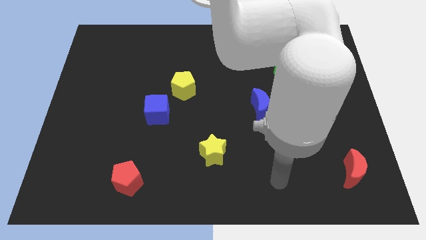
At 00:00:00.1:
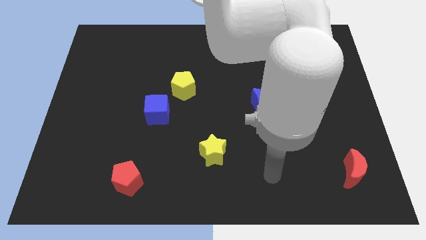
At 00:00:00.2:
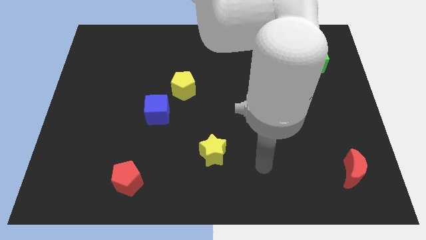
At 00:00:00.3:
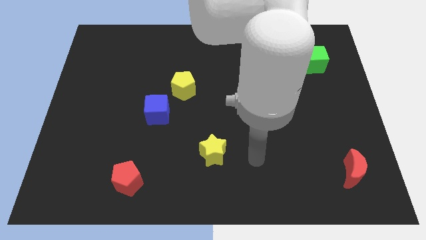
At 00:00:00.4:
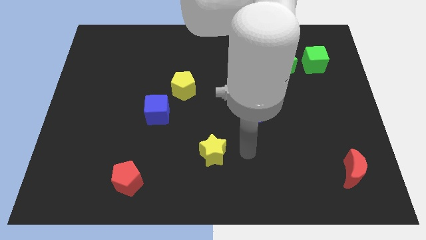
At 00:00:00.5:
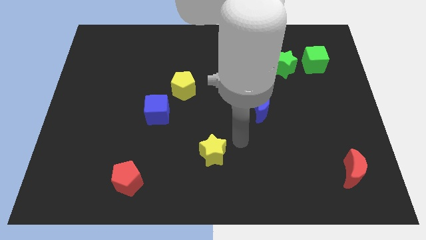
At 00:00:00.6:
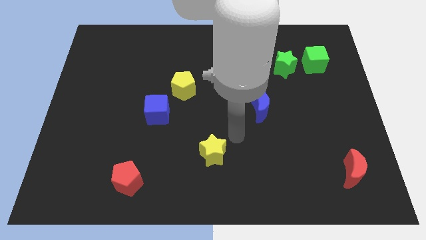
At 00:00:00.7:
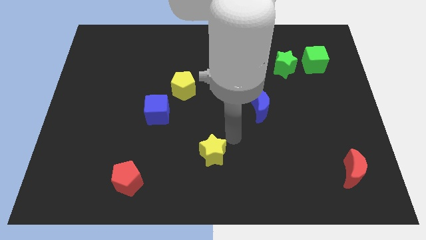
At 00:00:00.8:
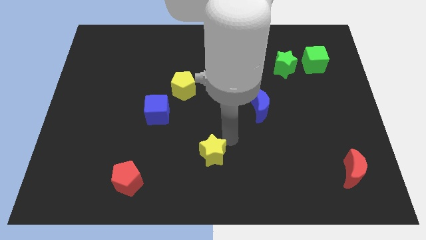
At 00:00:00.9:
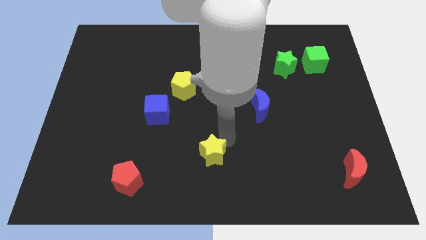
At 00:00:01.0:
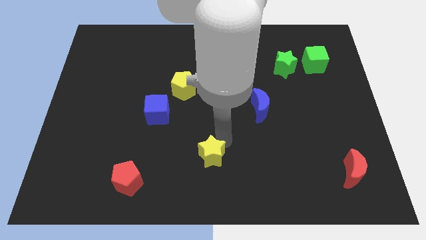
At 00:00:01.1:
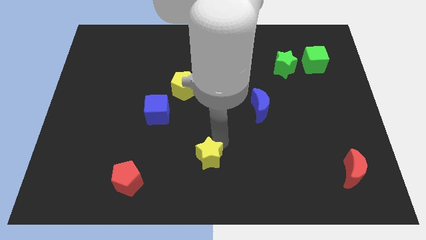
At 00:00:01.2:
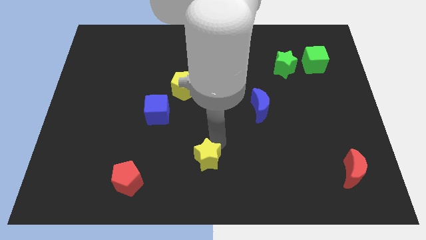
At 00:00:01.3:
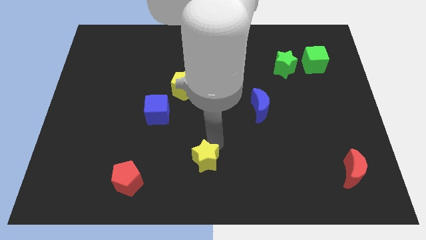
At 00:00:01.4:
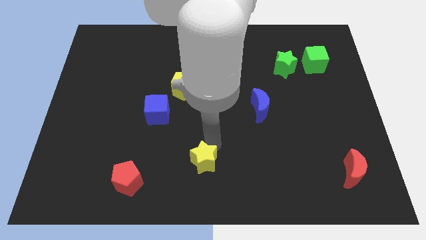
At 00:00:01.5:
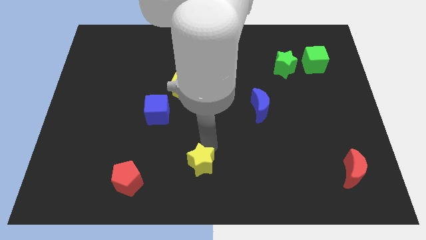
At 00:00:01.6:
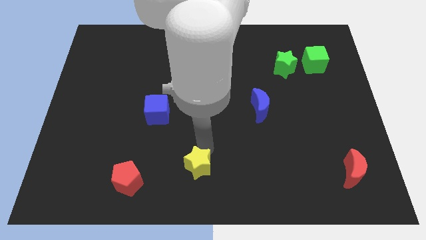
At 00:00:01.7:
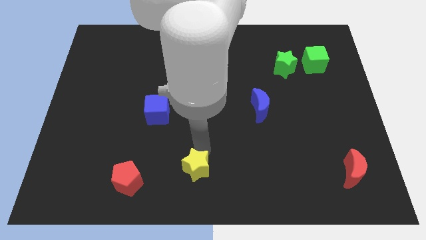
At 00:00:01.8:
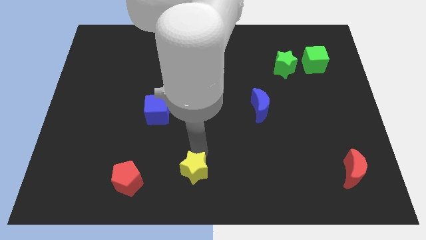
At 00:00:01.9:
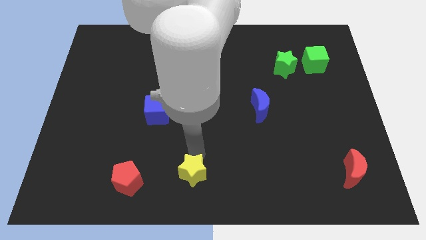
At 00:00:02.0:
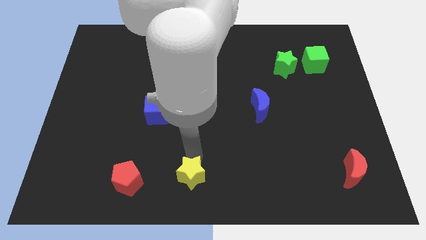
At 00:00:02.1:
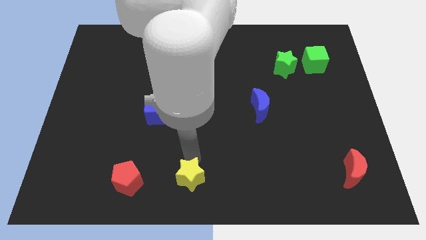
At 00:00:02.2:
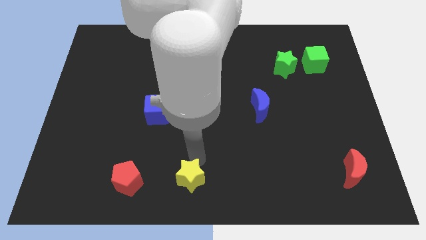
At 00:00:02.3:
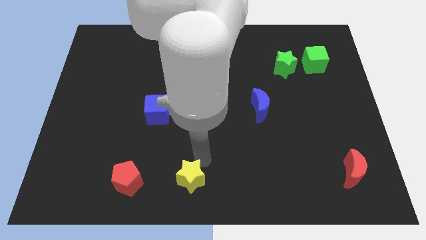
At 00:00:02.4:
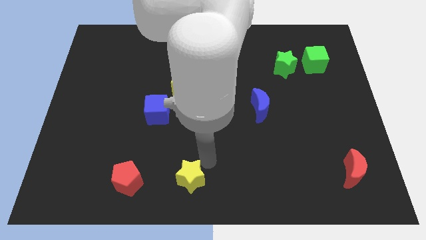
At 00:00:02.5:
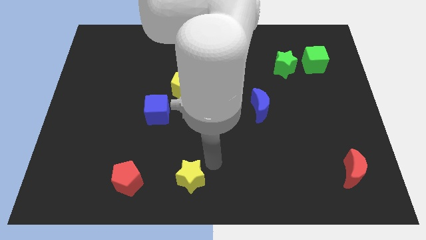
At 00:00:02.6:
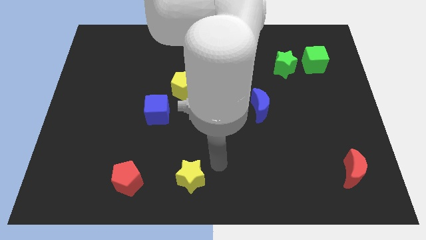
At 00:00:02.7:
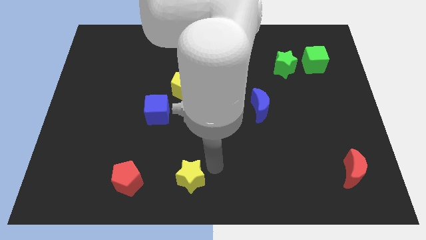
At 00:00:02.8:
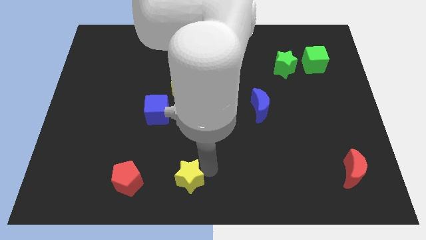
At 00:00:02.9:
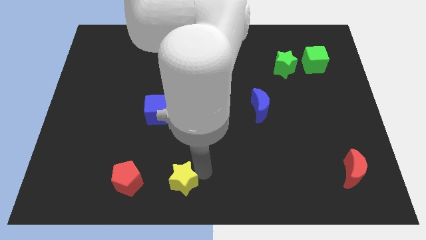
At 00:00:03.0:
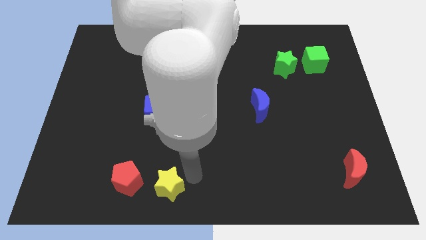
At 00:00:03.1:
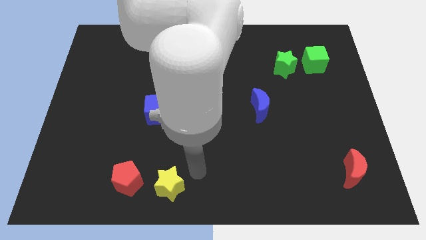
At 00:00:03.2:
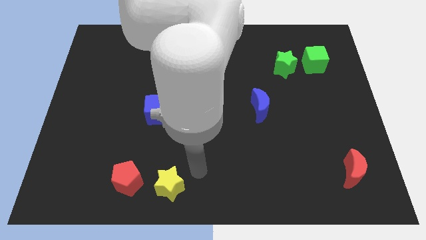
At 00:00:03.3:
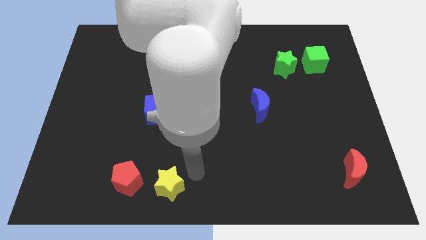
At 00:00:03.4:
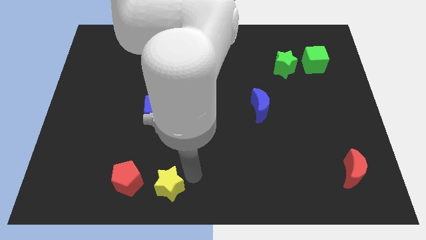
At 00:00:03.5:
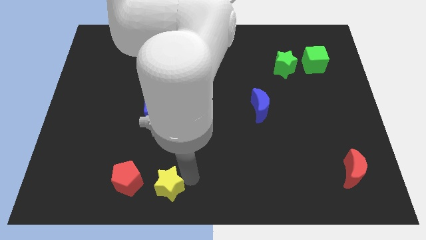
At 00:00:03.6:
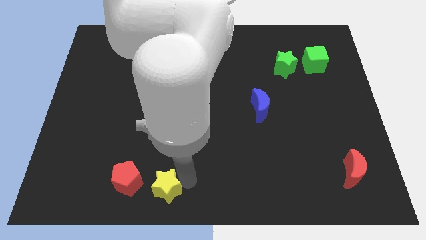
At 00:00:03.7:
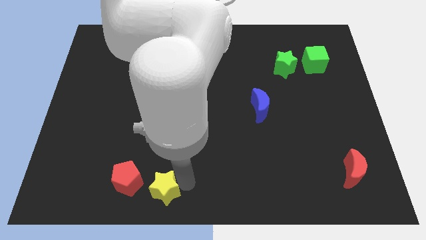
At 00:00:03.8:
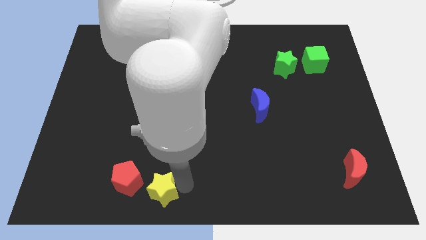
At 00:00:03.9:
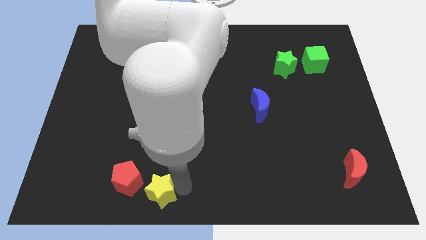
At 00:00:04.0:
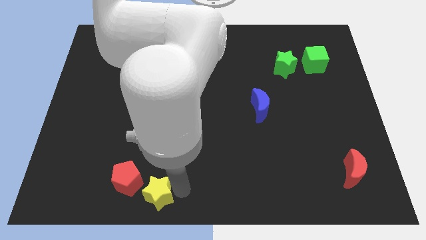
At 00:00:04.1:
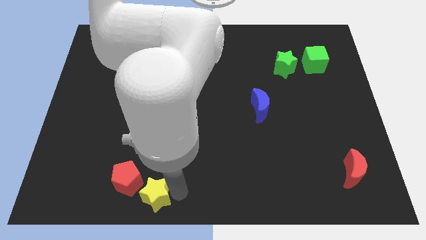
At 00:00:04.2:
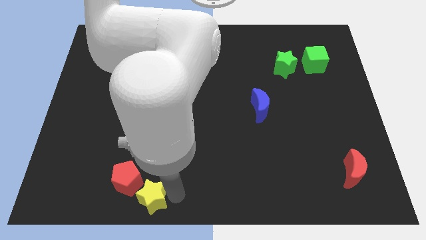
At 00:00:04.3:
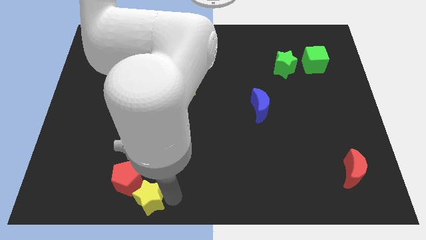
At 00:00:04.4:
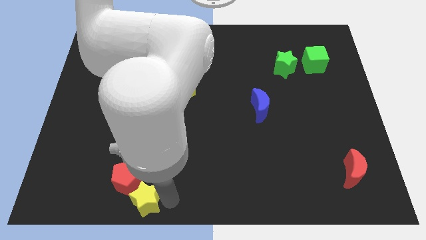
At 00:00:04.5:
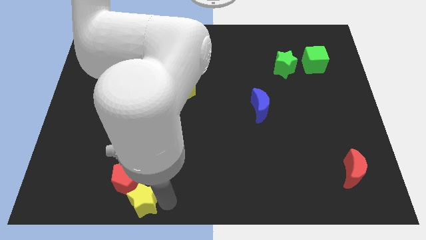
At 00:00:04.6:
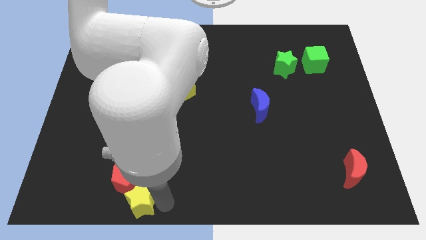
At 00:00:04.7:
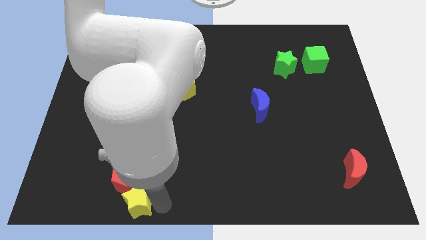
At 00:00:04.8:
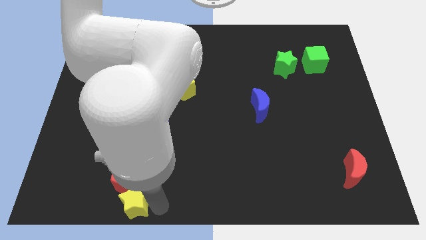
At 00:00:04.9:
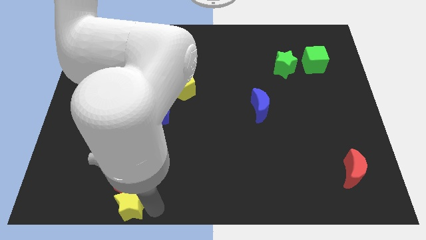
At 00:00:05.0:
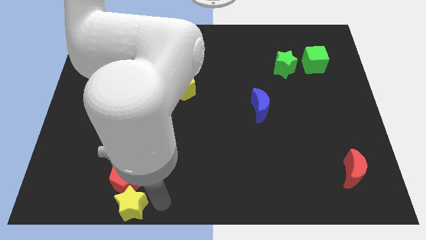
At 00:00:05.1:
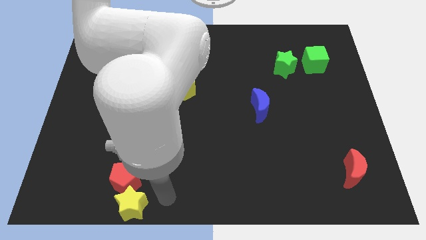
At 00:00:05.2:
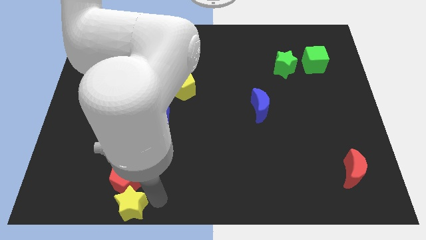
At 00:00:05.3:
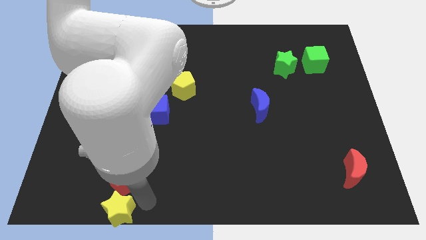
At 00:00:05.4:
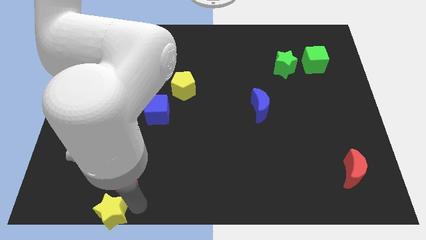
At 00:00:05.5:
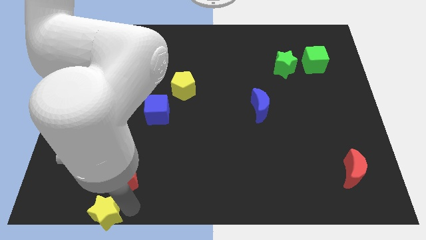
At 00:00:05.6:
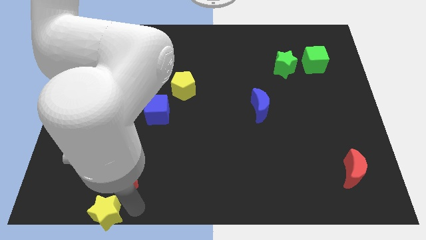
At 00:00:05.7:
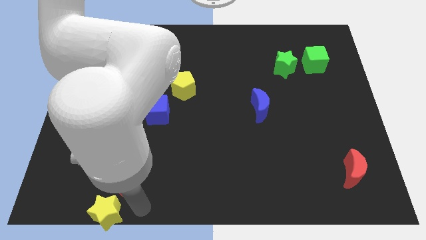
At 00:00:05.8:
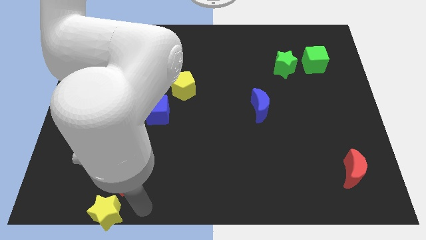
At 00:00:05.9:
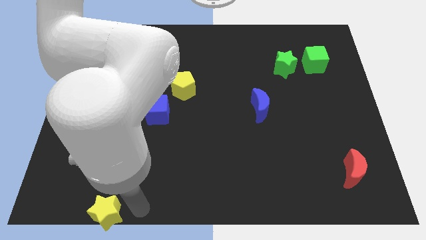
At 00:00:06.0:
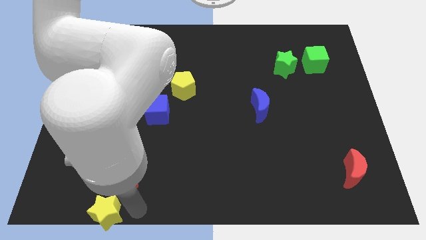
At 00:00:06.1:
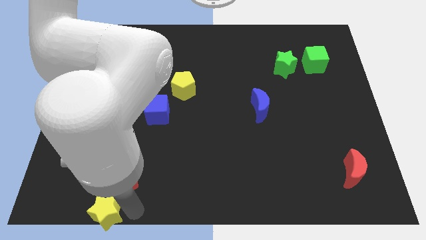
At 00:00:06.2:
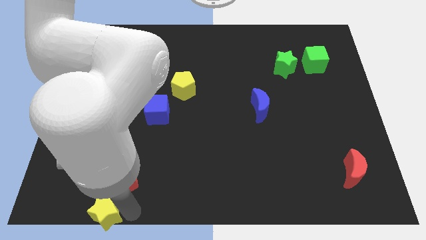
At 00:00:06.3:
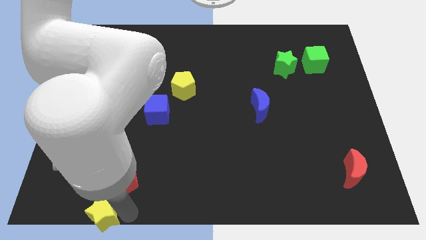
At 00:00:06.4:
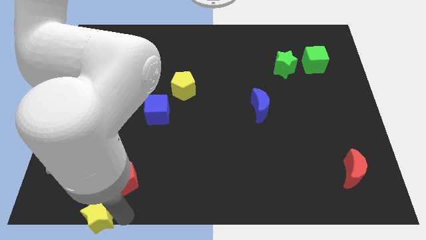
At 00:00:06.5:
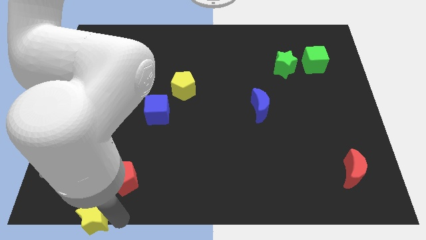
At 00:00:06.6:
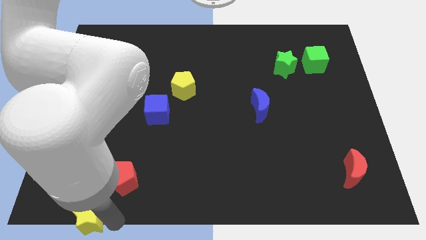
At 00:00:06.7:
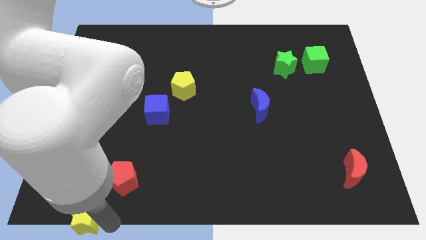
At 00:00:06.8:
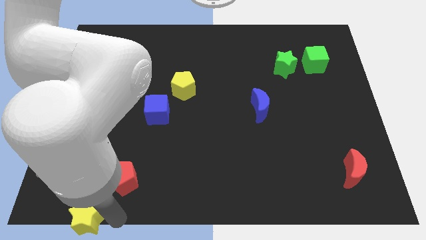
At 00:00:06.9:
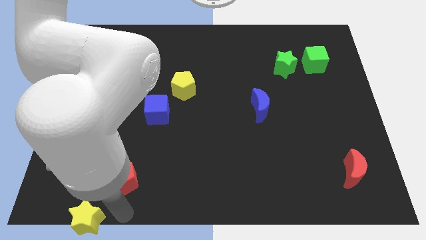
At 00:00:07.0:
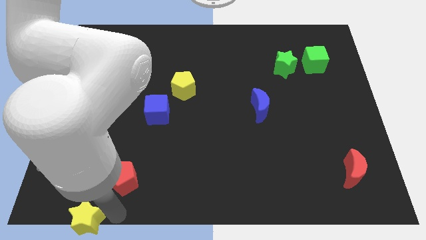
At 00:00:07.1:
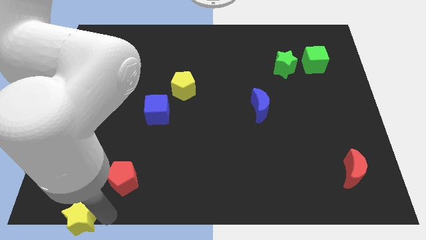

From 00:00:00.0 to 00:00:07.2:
move the yellow star to the bottom left corner

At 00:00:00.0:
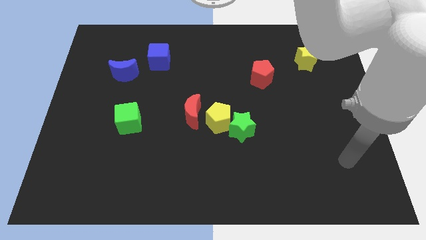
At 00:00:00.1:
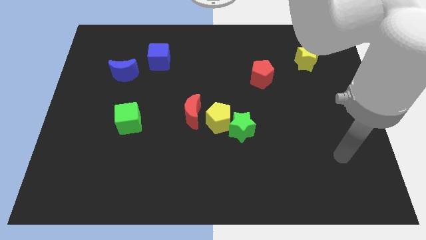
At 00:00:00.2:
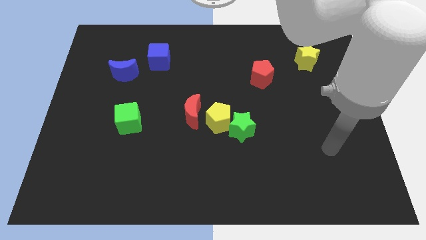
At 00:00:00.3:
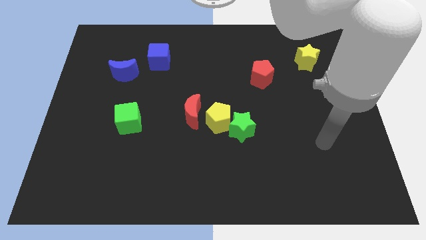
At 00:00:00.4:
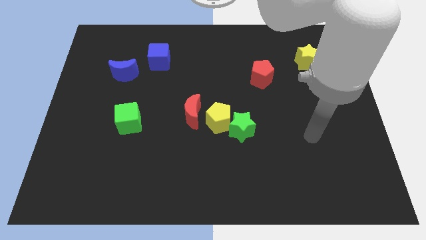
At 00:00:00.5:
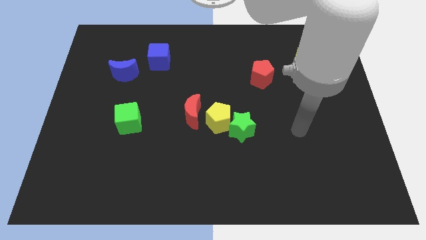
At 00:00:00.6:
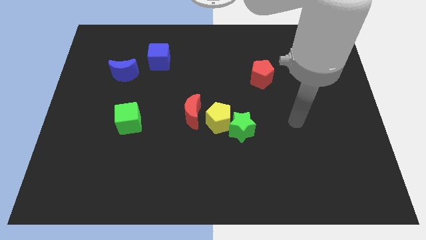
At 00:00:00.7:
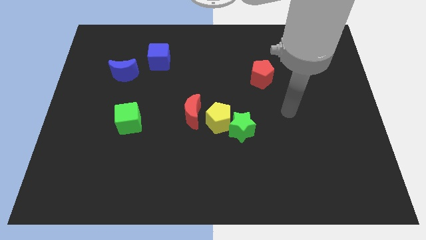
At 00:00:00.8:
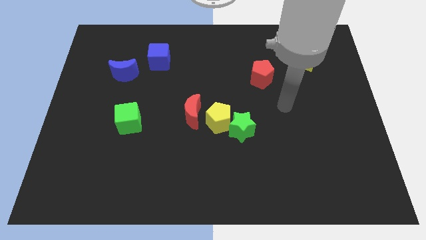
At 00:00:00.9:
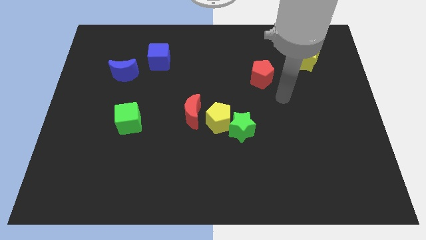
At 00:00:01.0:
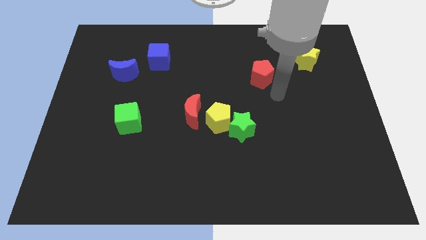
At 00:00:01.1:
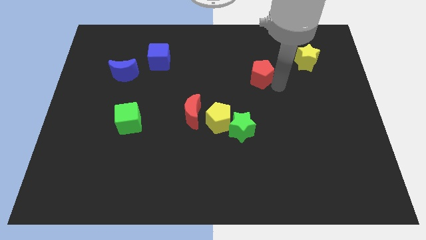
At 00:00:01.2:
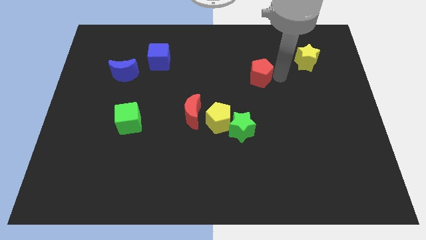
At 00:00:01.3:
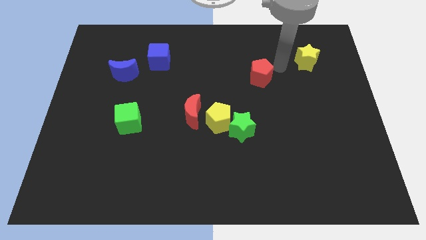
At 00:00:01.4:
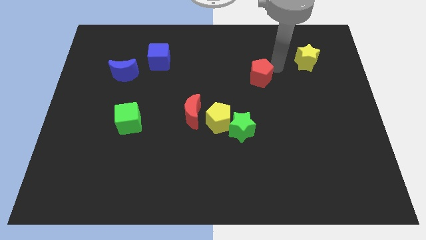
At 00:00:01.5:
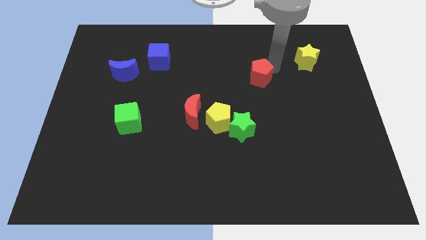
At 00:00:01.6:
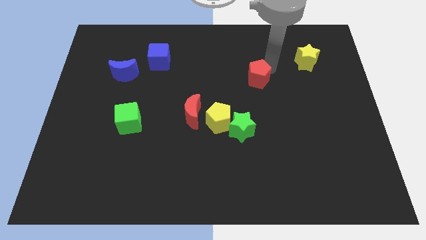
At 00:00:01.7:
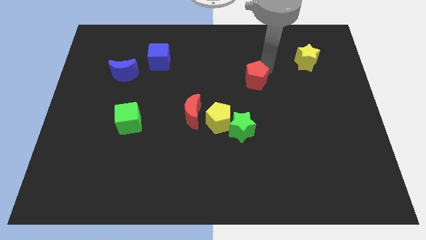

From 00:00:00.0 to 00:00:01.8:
put the red pentagon to the middle of the board
